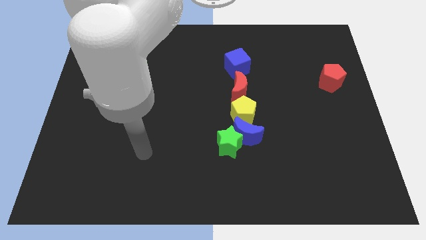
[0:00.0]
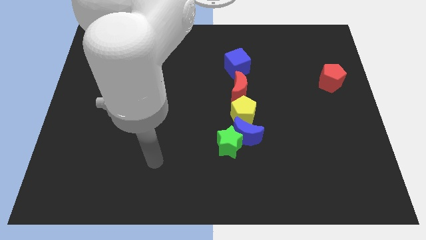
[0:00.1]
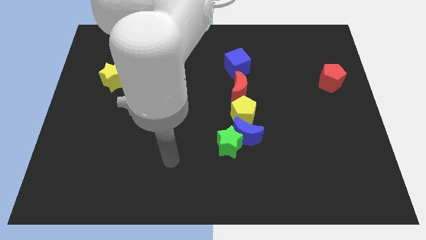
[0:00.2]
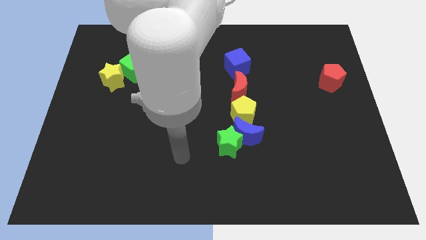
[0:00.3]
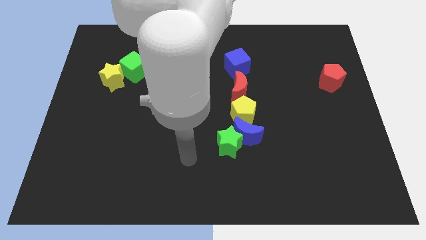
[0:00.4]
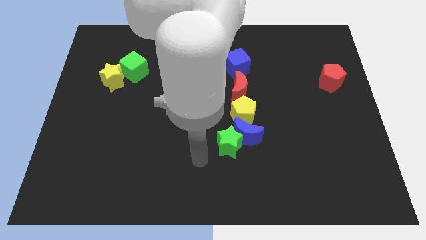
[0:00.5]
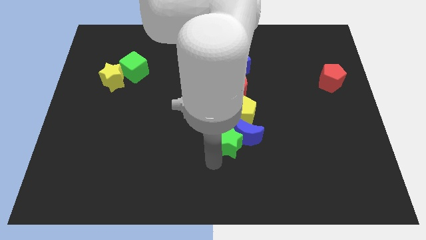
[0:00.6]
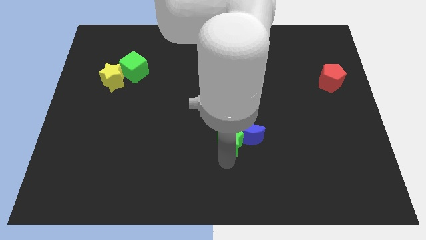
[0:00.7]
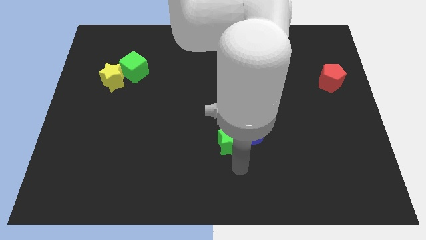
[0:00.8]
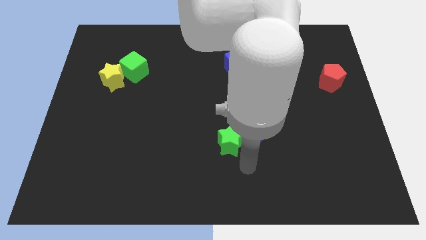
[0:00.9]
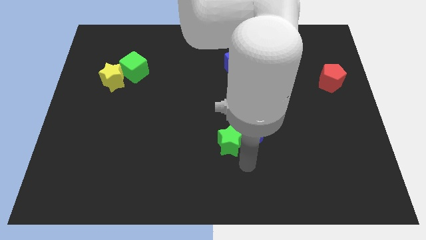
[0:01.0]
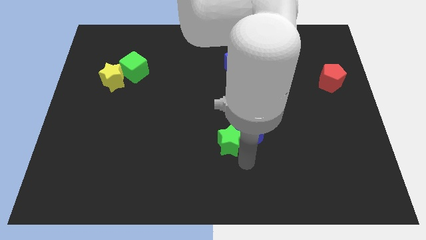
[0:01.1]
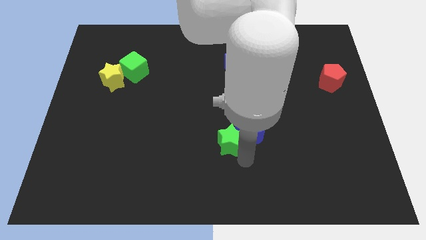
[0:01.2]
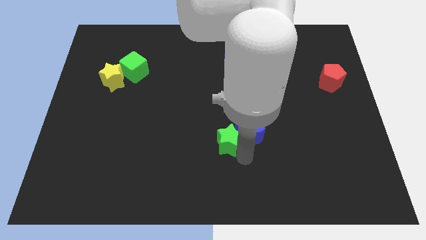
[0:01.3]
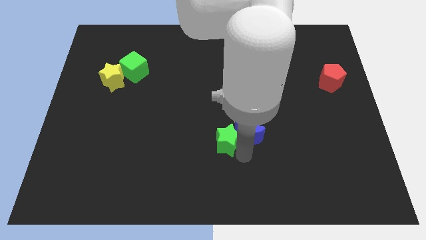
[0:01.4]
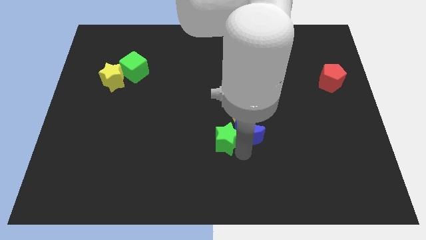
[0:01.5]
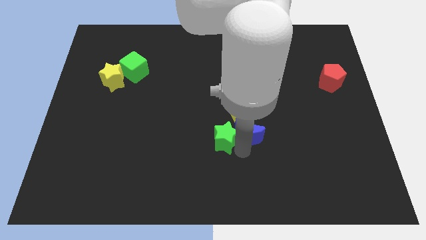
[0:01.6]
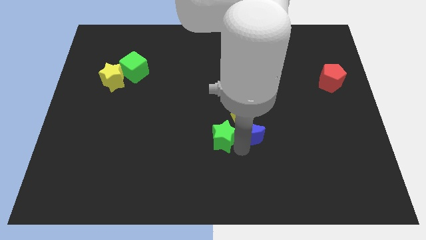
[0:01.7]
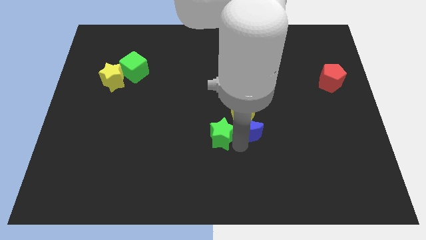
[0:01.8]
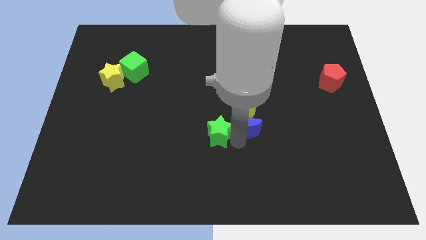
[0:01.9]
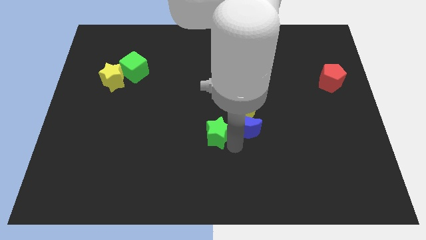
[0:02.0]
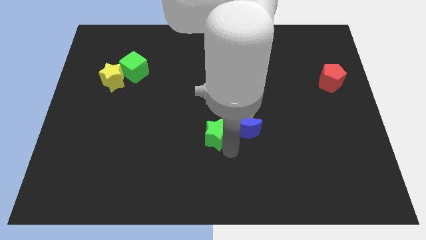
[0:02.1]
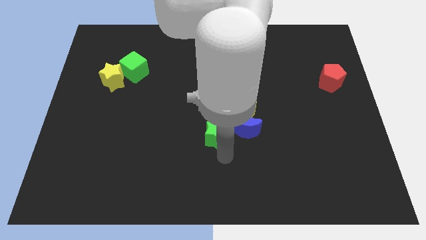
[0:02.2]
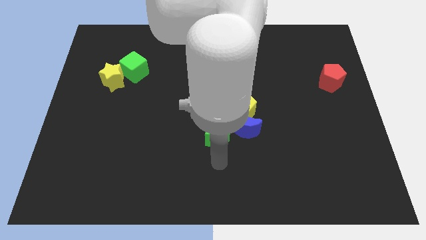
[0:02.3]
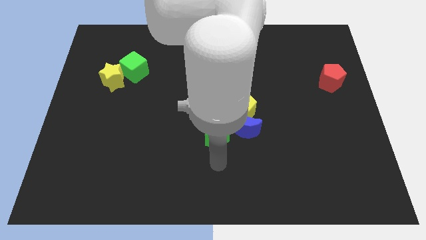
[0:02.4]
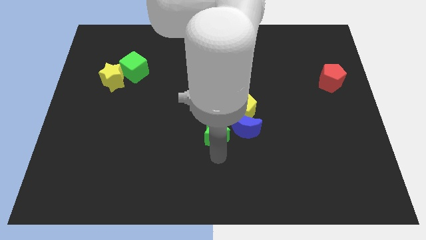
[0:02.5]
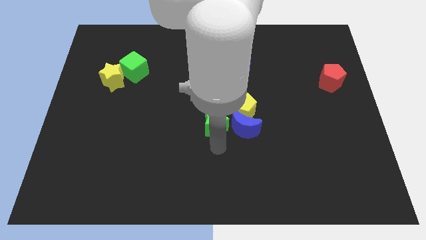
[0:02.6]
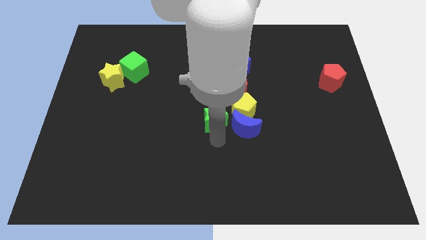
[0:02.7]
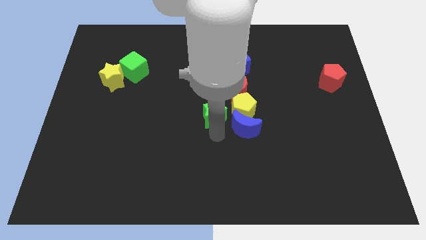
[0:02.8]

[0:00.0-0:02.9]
slide the green star slightly upwards

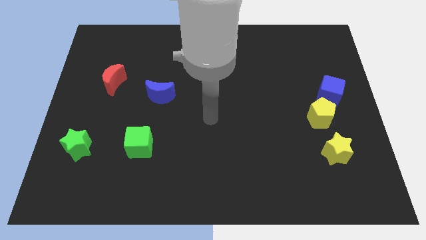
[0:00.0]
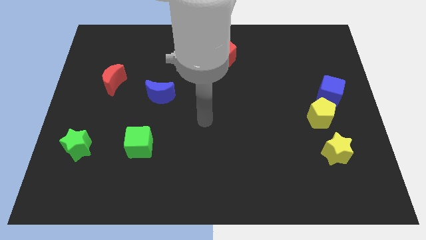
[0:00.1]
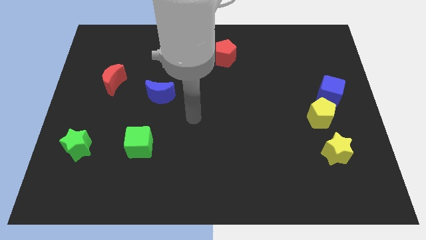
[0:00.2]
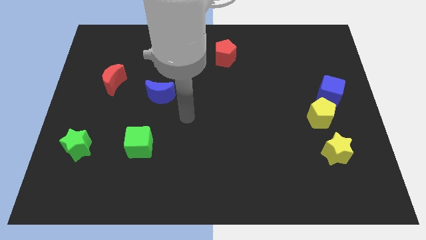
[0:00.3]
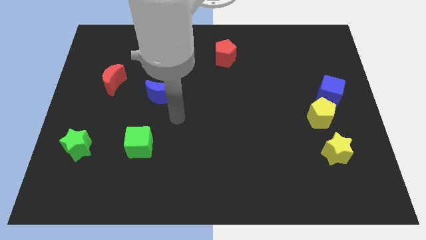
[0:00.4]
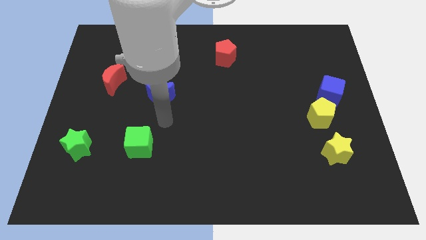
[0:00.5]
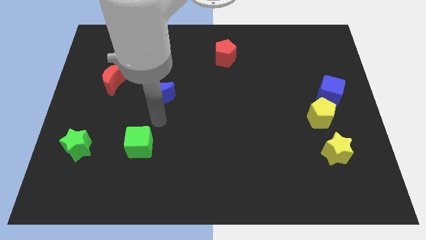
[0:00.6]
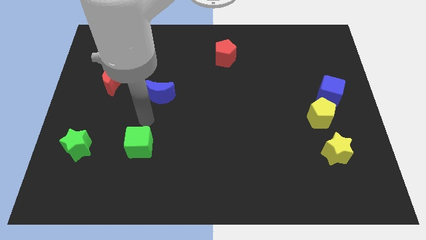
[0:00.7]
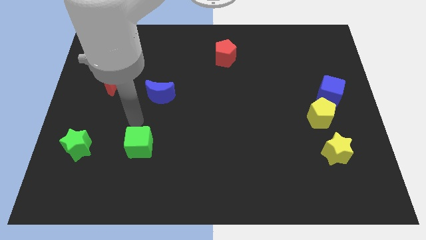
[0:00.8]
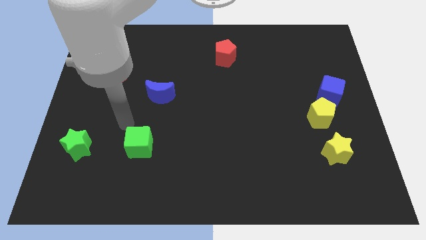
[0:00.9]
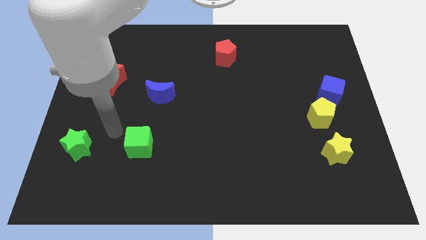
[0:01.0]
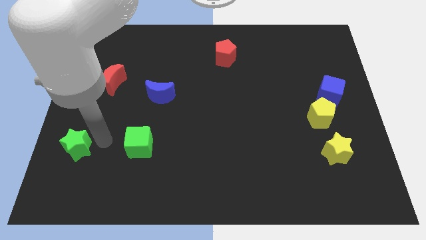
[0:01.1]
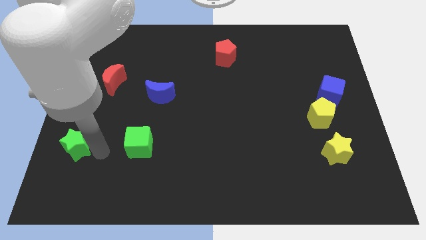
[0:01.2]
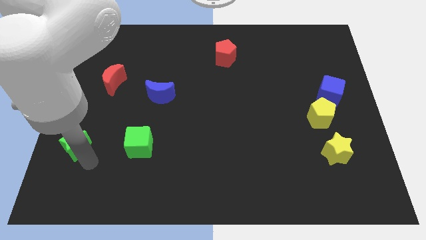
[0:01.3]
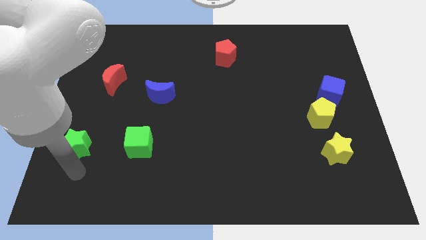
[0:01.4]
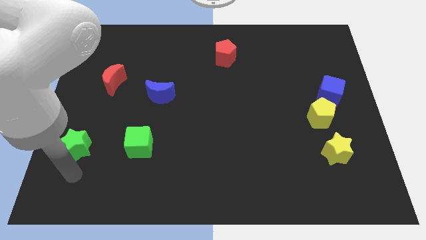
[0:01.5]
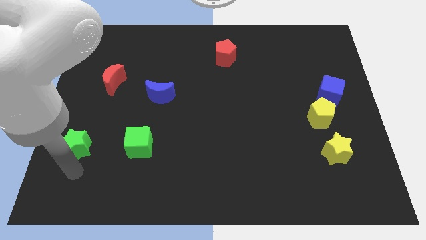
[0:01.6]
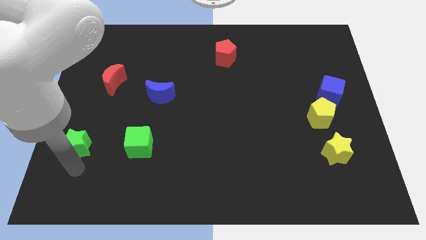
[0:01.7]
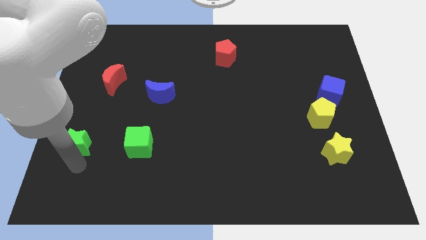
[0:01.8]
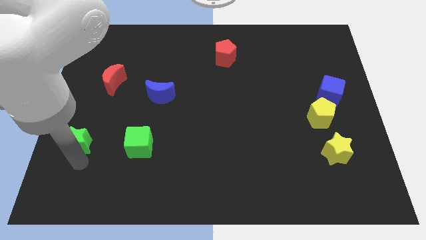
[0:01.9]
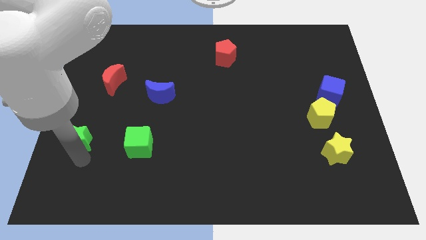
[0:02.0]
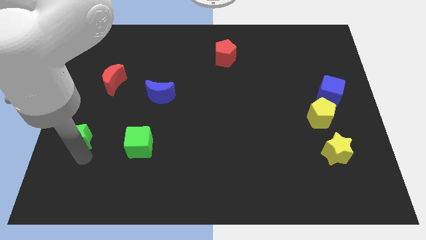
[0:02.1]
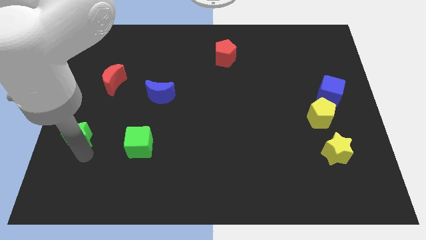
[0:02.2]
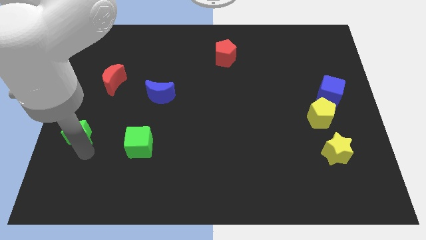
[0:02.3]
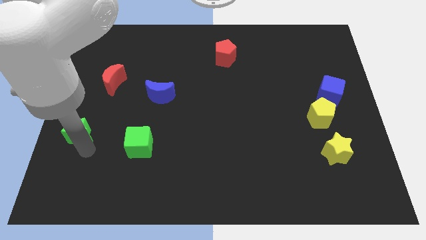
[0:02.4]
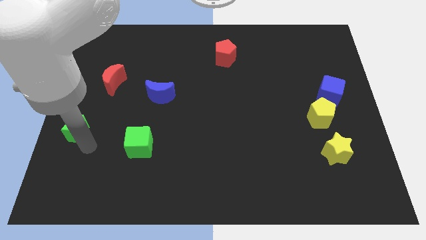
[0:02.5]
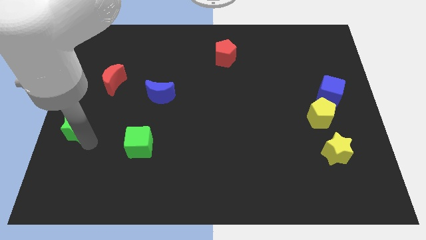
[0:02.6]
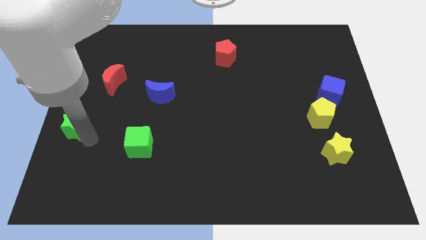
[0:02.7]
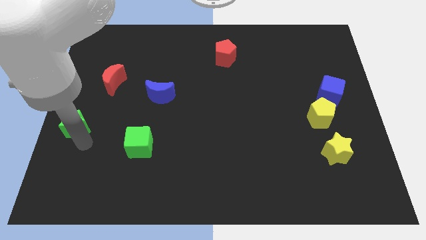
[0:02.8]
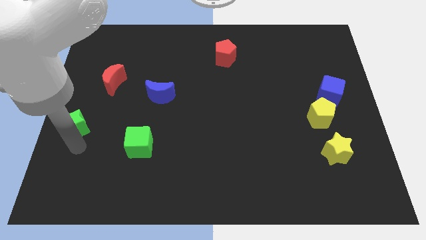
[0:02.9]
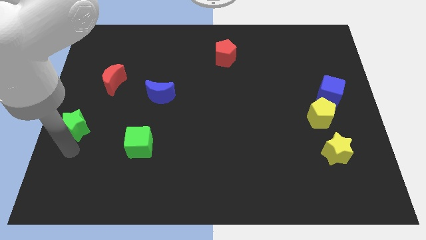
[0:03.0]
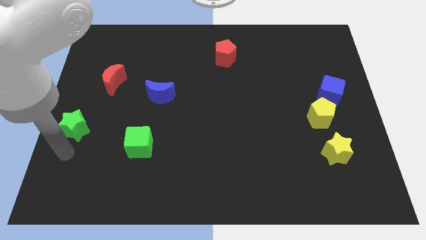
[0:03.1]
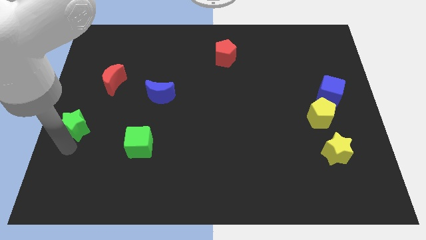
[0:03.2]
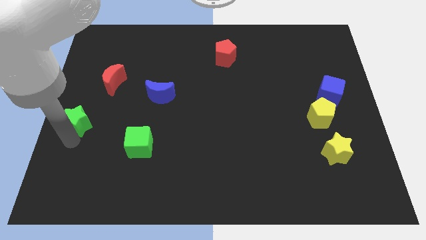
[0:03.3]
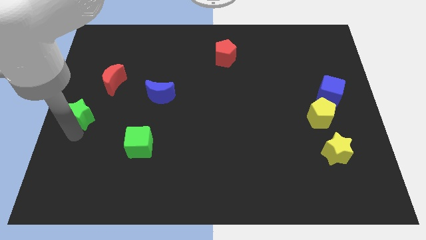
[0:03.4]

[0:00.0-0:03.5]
move the green star somewhat up

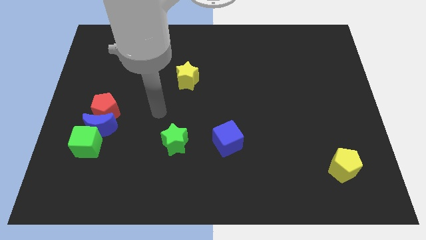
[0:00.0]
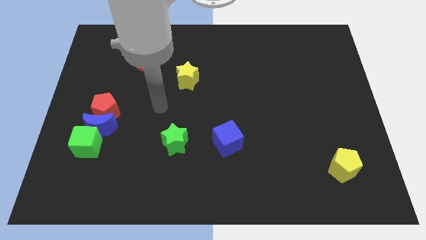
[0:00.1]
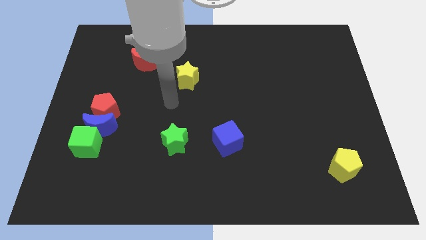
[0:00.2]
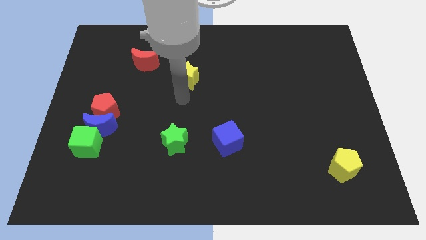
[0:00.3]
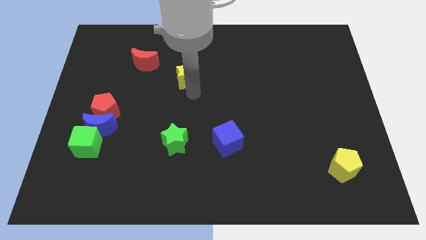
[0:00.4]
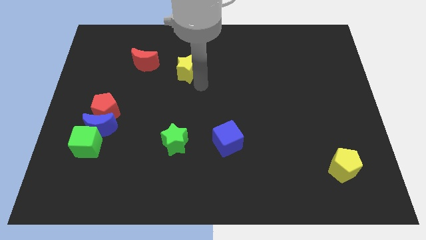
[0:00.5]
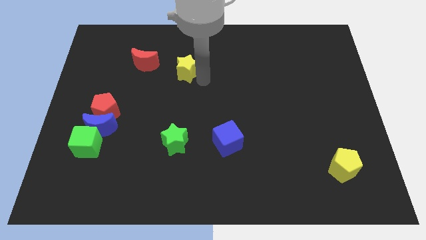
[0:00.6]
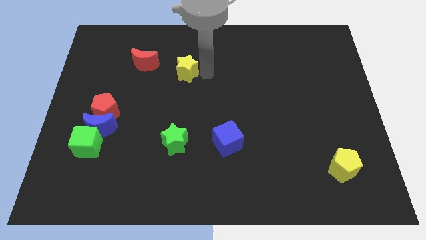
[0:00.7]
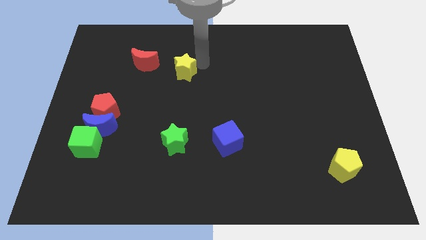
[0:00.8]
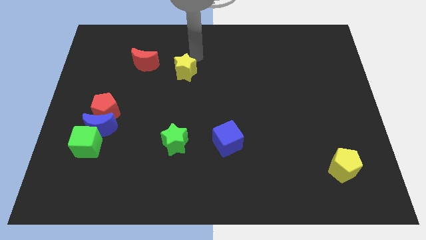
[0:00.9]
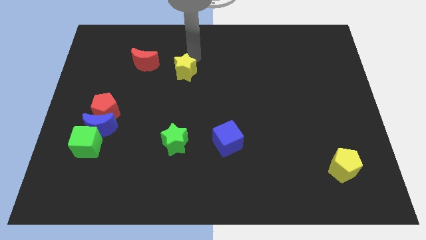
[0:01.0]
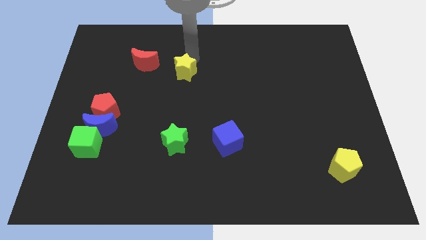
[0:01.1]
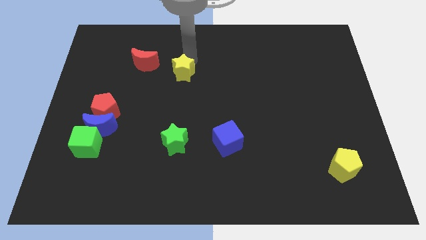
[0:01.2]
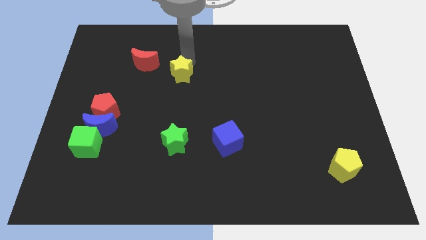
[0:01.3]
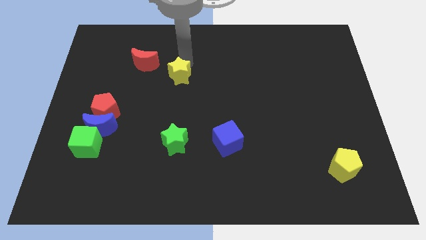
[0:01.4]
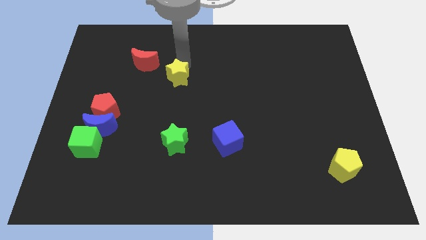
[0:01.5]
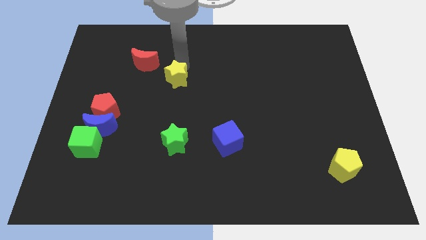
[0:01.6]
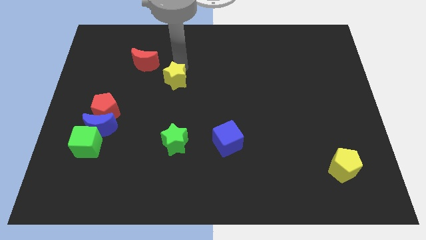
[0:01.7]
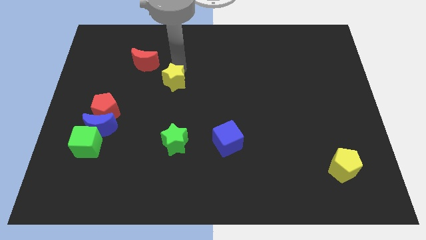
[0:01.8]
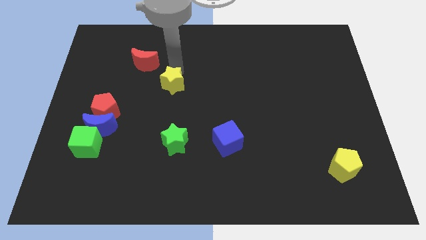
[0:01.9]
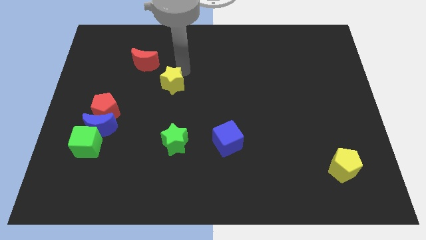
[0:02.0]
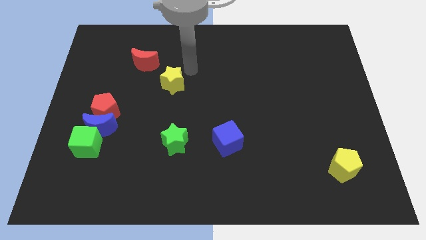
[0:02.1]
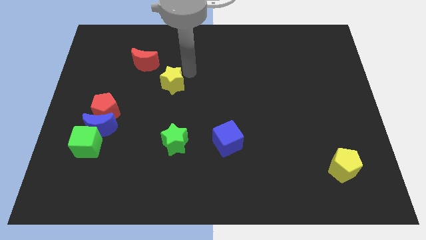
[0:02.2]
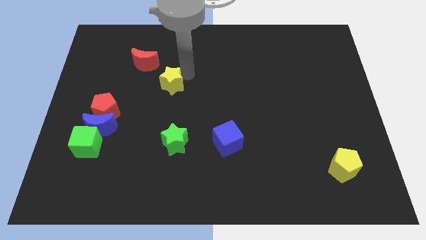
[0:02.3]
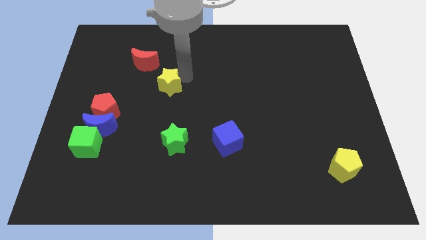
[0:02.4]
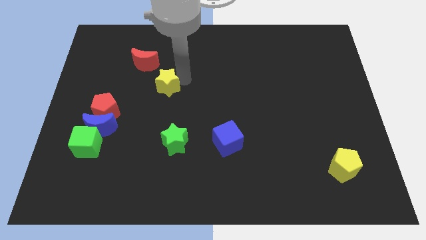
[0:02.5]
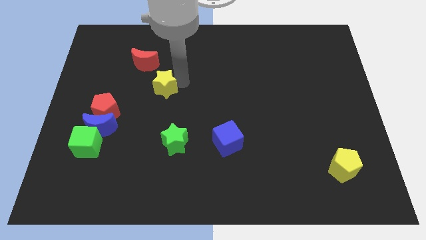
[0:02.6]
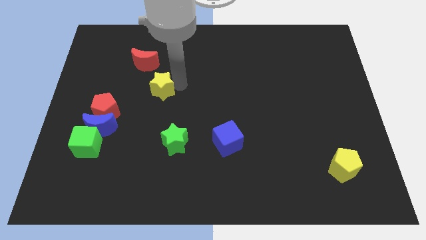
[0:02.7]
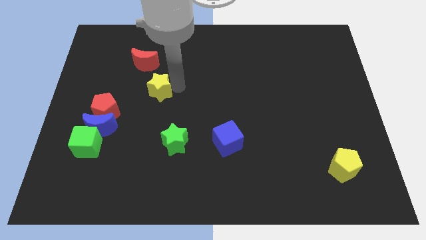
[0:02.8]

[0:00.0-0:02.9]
move the yellow star a little bit downwards and left
